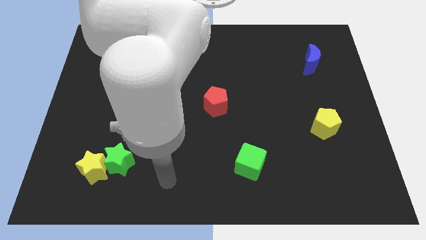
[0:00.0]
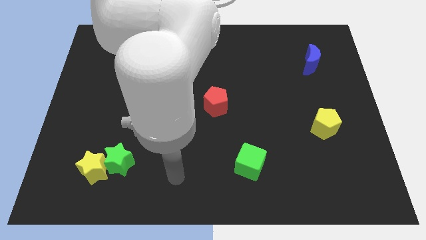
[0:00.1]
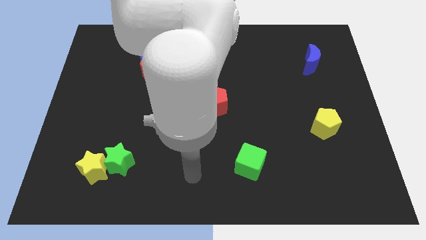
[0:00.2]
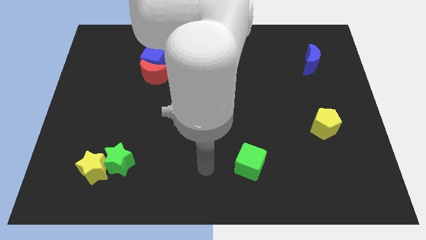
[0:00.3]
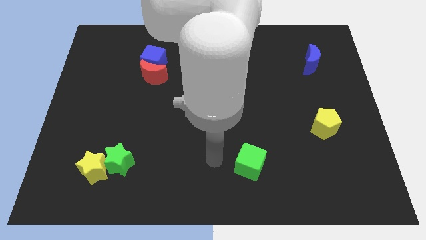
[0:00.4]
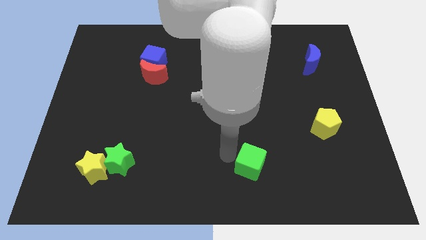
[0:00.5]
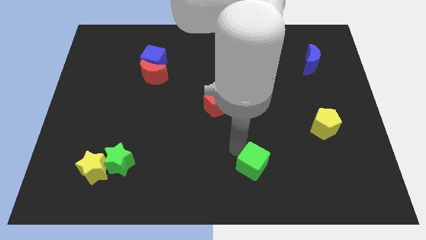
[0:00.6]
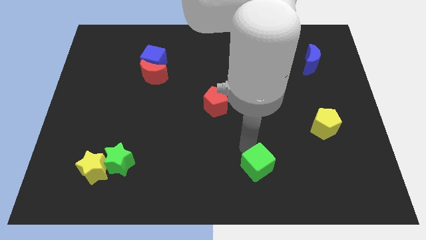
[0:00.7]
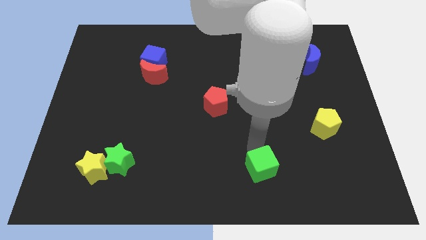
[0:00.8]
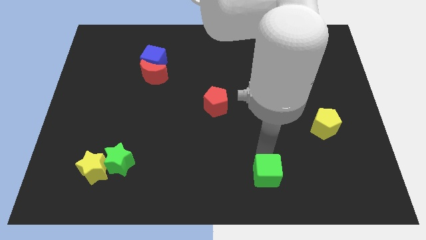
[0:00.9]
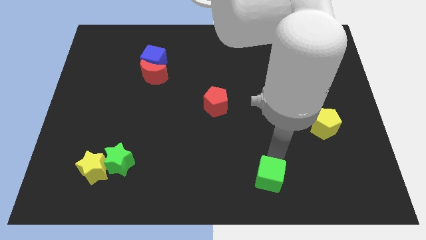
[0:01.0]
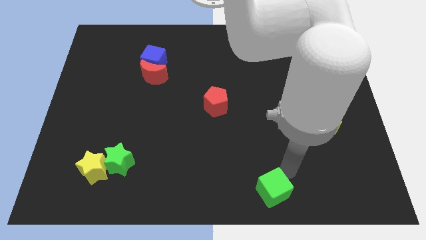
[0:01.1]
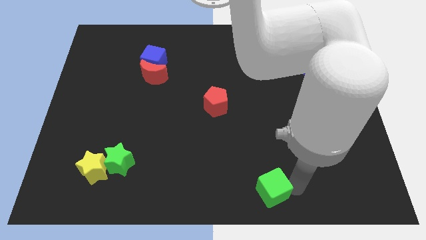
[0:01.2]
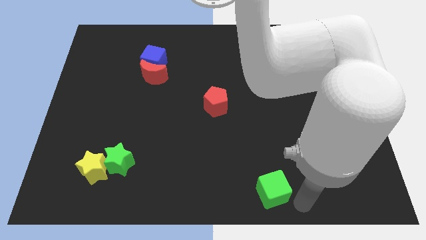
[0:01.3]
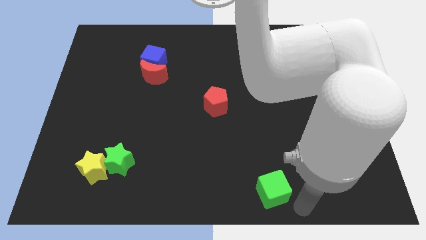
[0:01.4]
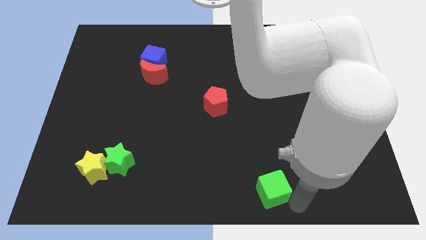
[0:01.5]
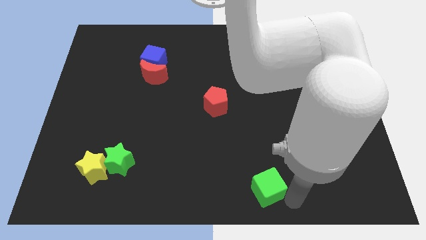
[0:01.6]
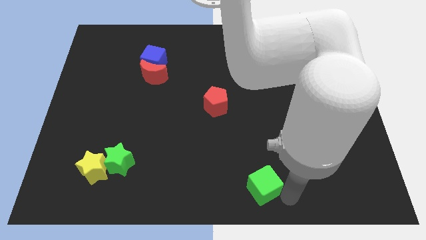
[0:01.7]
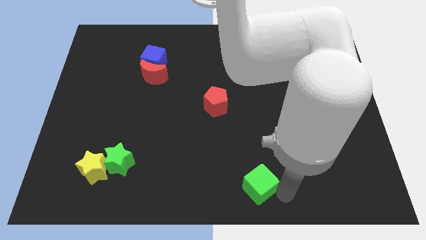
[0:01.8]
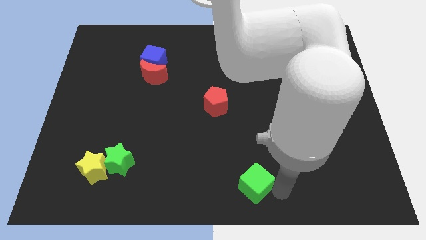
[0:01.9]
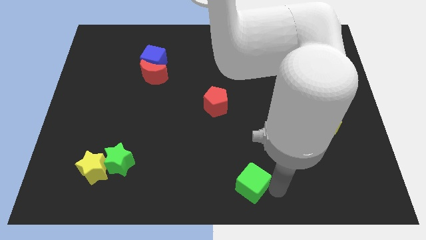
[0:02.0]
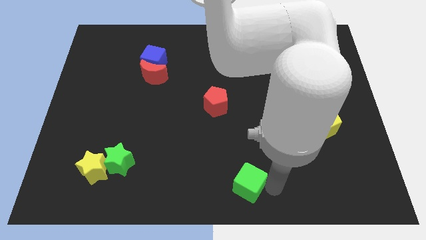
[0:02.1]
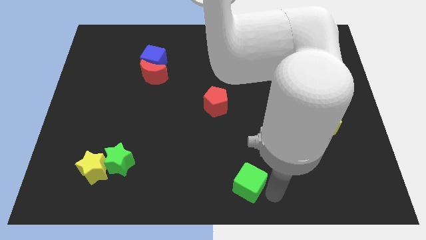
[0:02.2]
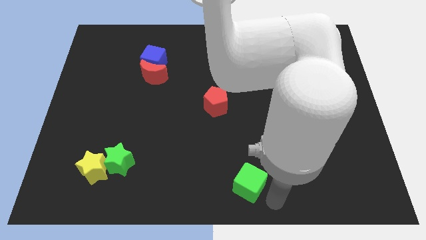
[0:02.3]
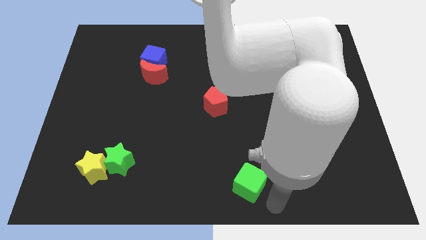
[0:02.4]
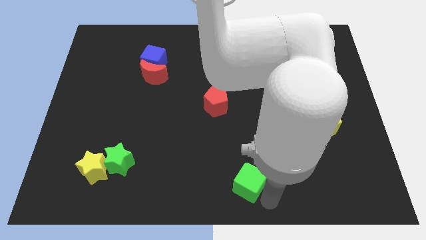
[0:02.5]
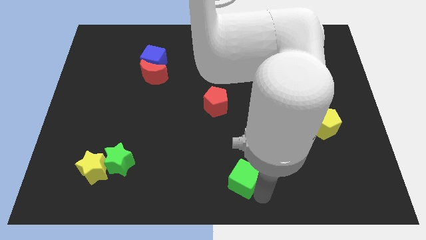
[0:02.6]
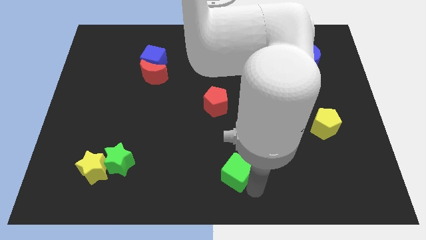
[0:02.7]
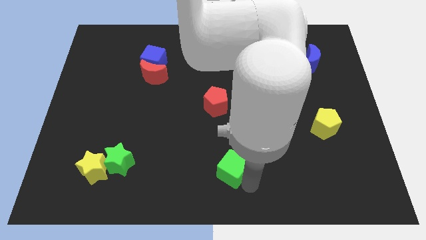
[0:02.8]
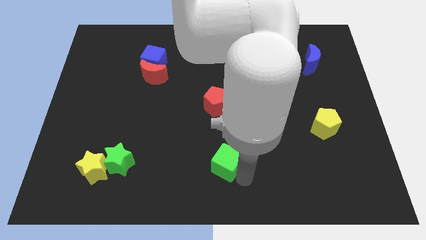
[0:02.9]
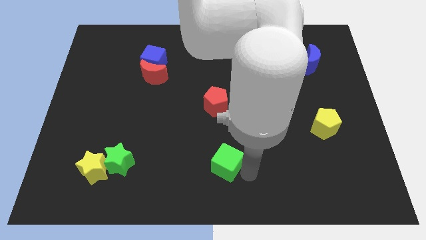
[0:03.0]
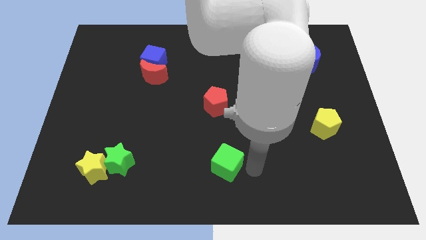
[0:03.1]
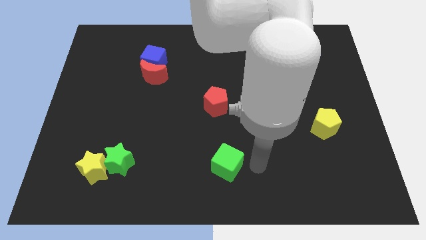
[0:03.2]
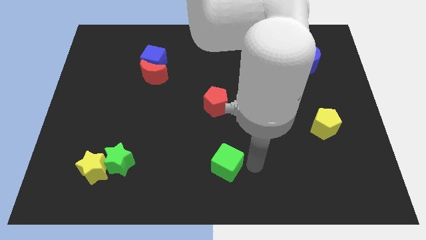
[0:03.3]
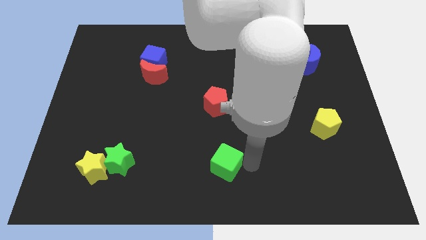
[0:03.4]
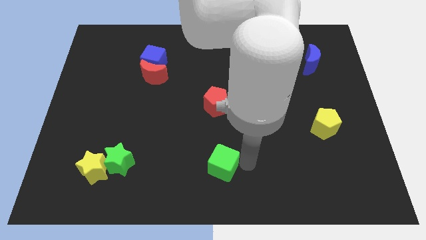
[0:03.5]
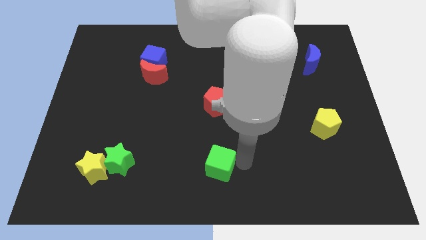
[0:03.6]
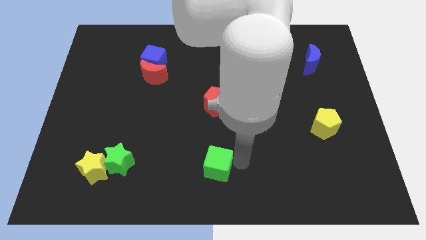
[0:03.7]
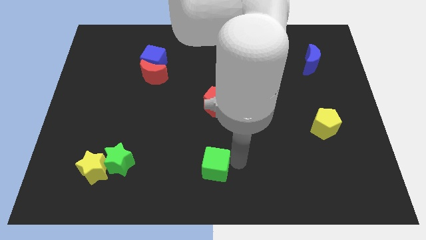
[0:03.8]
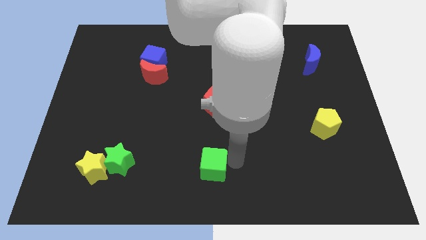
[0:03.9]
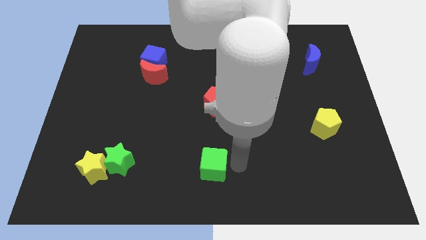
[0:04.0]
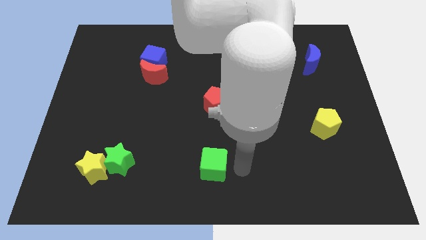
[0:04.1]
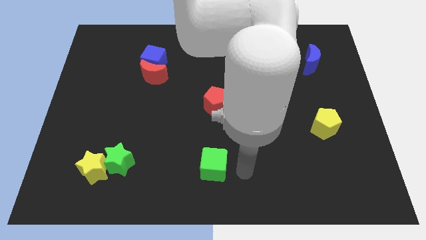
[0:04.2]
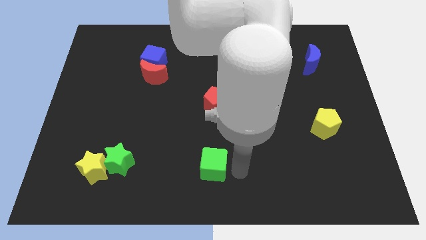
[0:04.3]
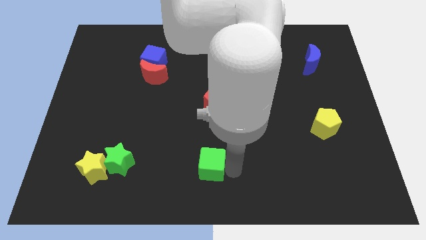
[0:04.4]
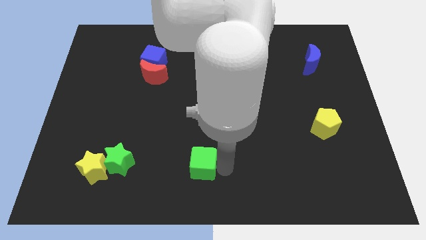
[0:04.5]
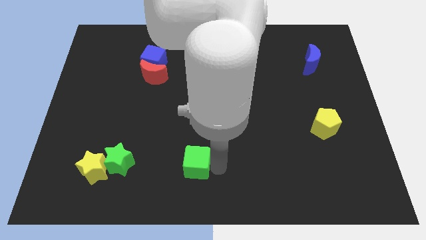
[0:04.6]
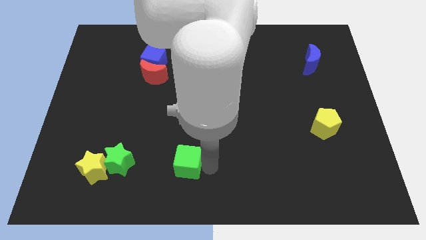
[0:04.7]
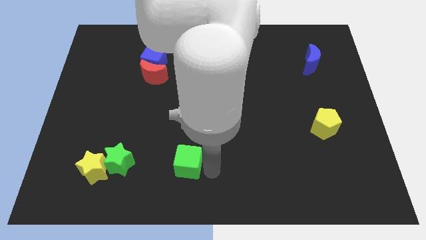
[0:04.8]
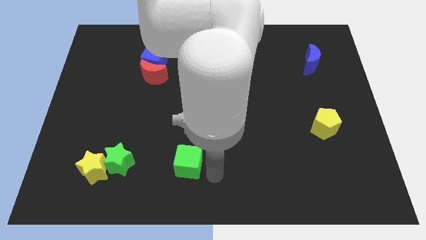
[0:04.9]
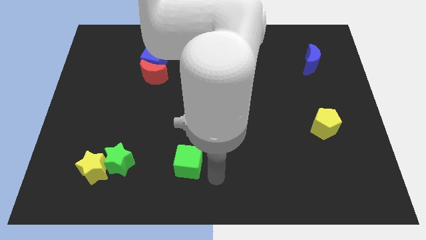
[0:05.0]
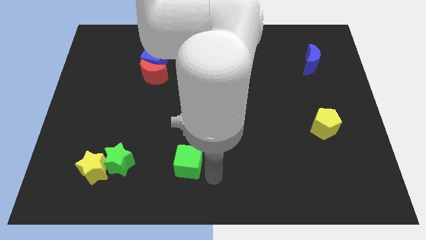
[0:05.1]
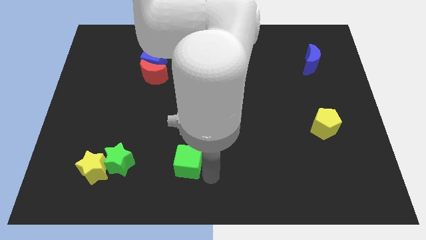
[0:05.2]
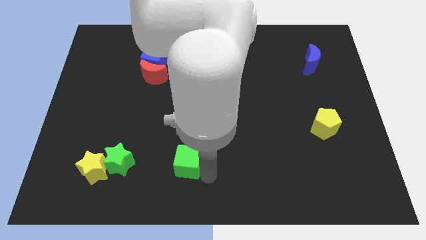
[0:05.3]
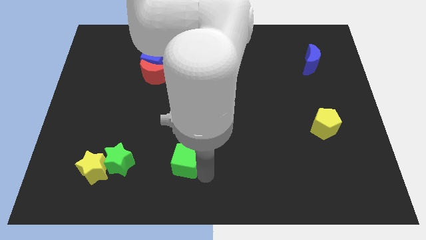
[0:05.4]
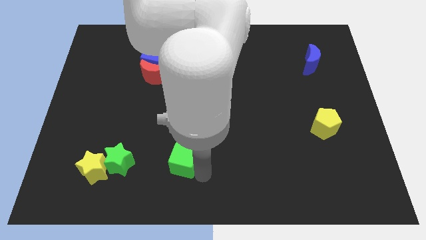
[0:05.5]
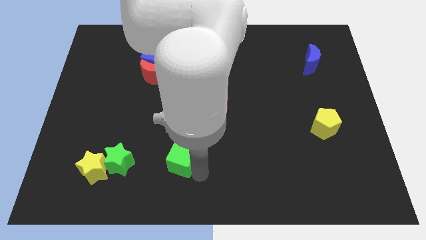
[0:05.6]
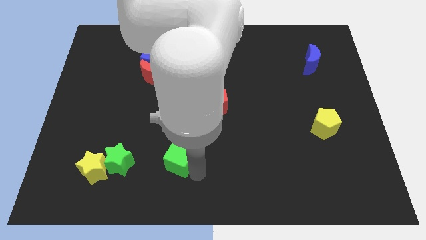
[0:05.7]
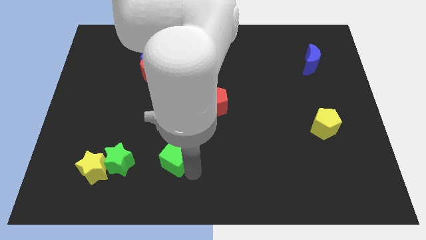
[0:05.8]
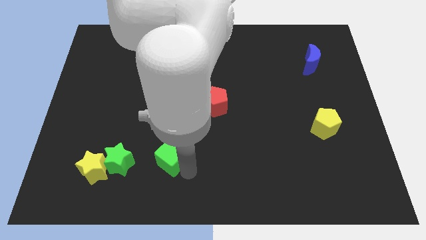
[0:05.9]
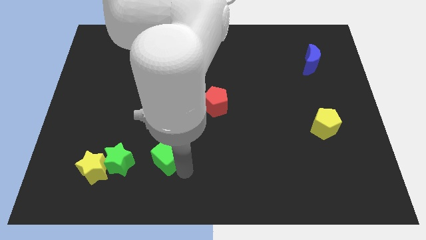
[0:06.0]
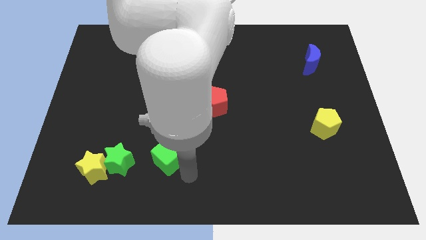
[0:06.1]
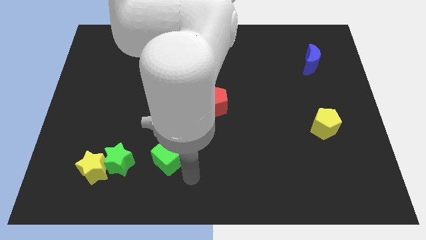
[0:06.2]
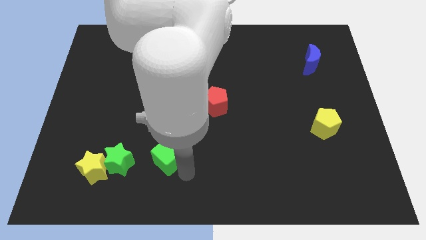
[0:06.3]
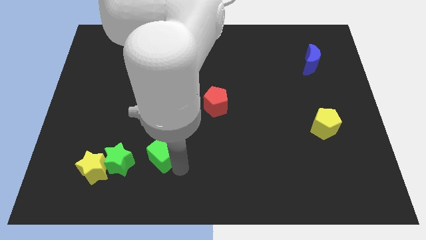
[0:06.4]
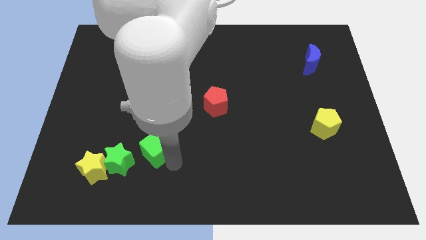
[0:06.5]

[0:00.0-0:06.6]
push the green cube to the top right of the green star

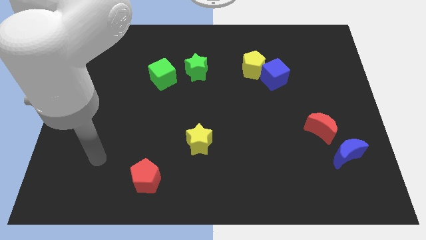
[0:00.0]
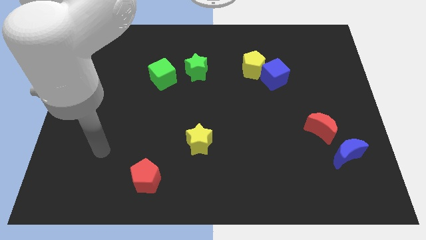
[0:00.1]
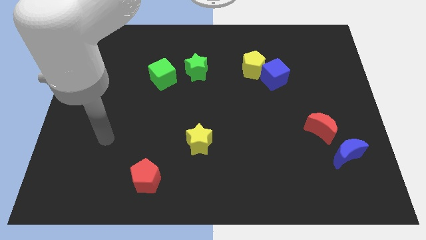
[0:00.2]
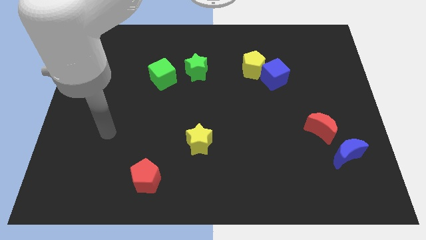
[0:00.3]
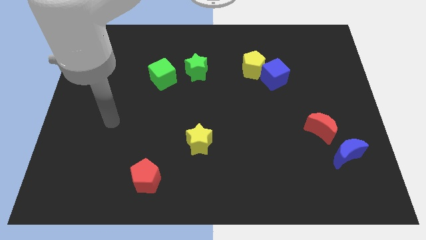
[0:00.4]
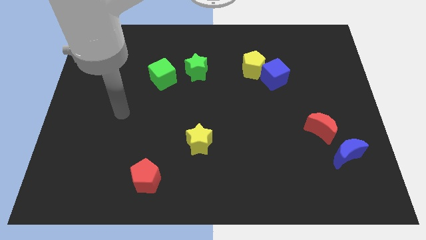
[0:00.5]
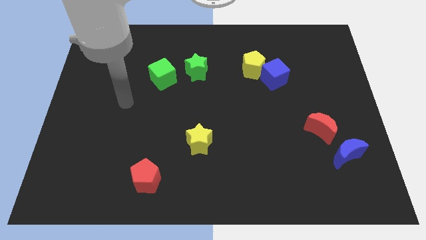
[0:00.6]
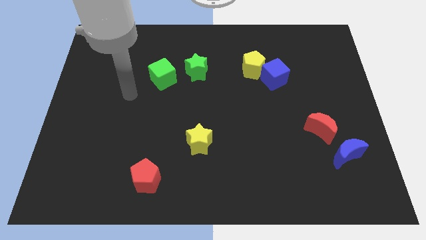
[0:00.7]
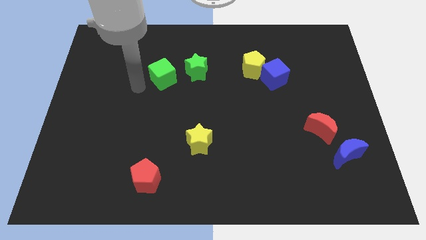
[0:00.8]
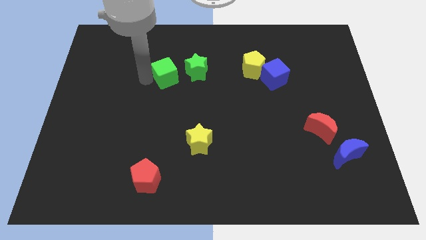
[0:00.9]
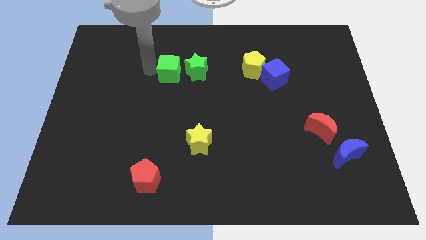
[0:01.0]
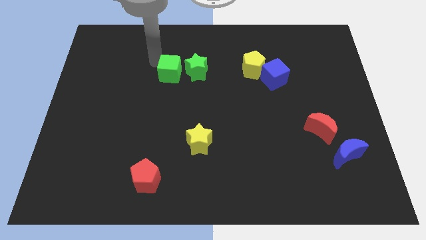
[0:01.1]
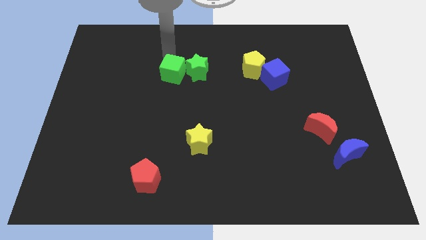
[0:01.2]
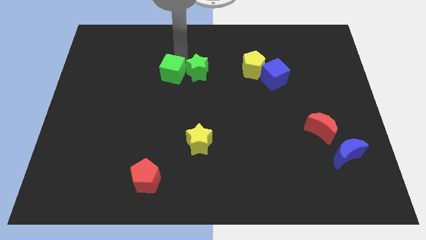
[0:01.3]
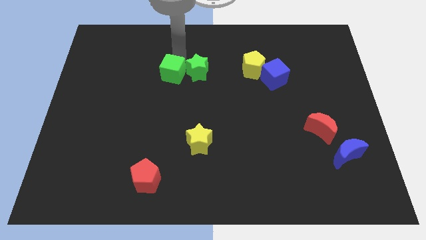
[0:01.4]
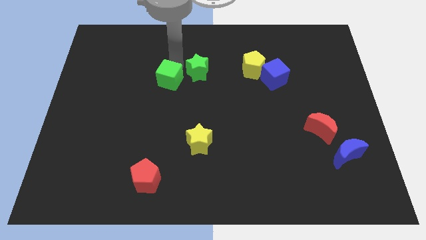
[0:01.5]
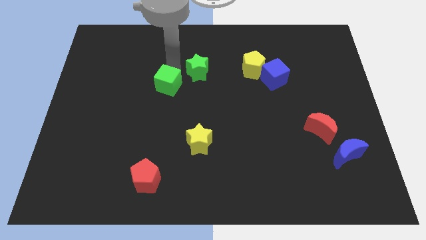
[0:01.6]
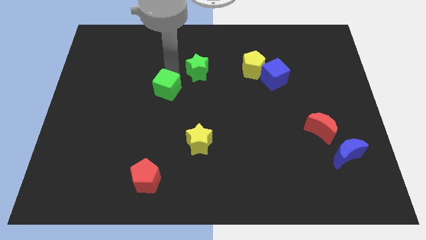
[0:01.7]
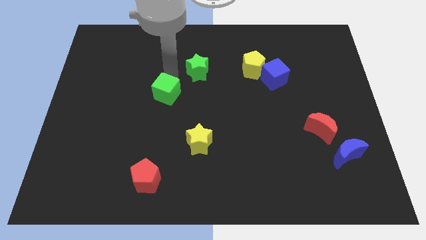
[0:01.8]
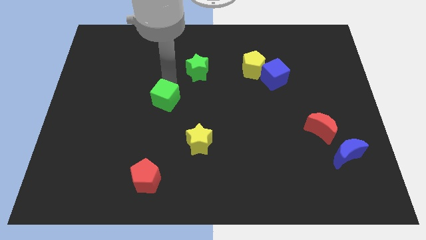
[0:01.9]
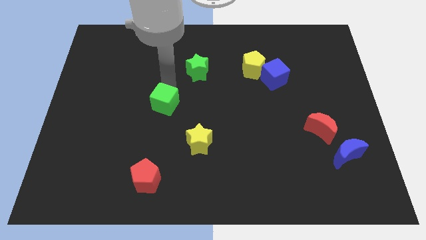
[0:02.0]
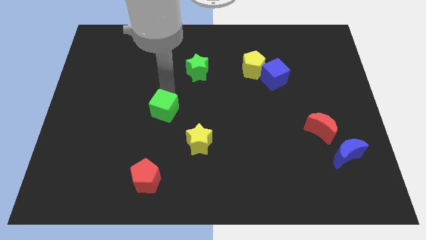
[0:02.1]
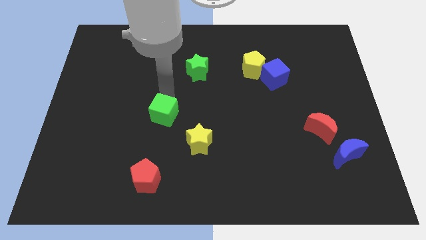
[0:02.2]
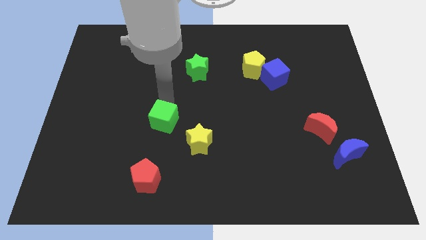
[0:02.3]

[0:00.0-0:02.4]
move the green cube above the red pentagon
